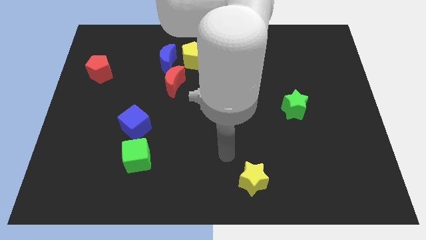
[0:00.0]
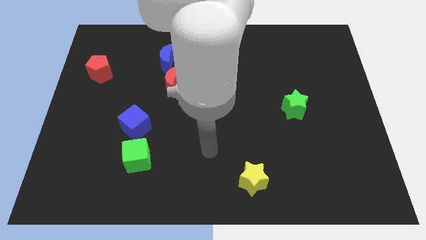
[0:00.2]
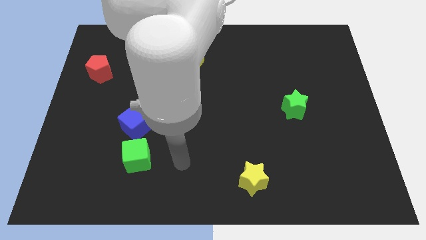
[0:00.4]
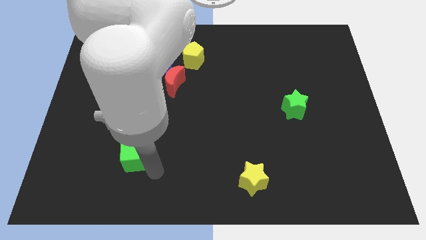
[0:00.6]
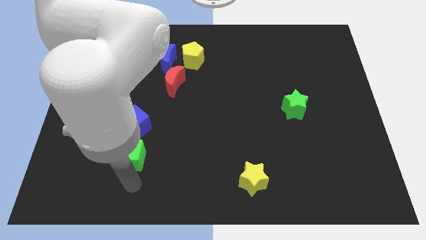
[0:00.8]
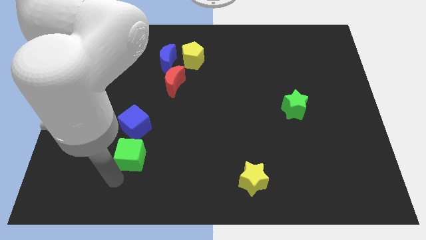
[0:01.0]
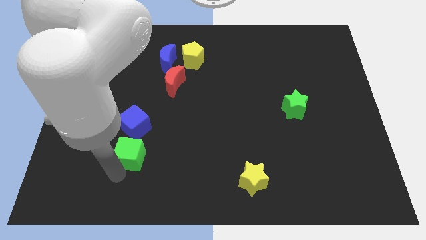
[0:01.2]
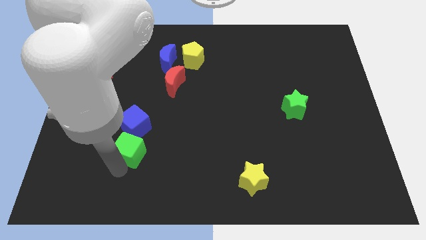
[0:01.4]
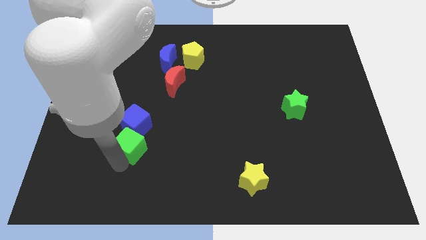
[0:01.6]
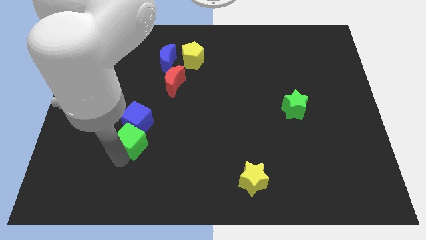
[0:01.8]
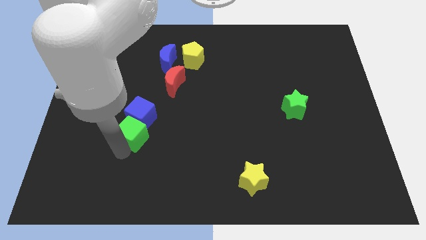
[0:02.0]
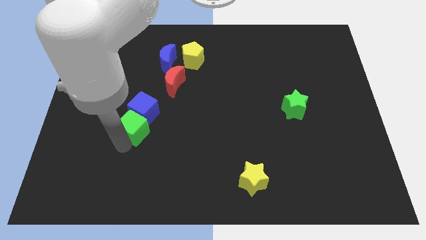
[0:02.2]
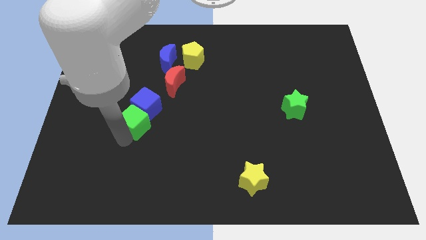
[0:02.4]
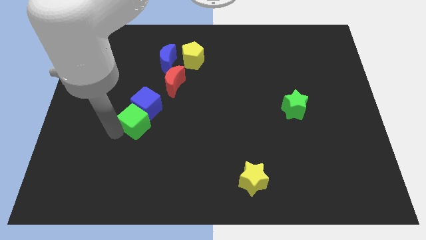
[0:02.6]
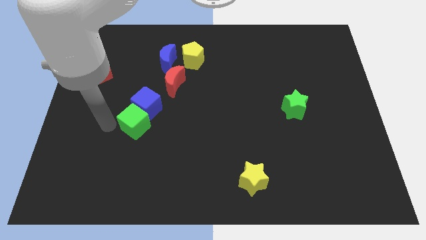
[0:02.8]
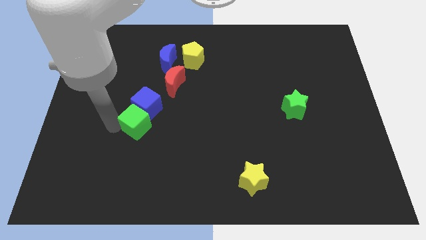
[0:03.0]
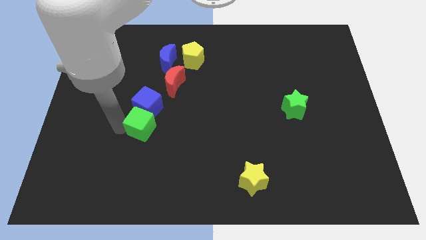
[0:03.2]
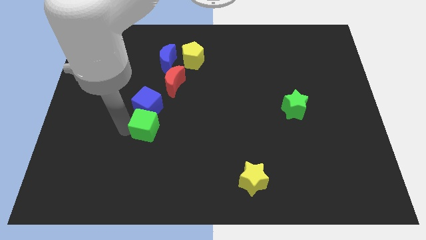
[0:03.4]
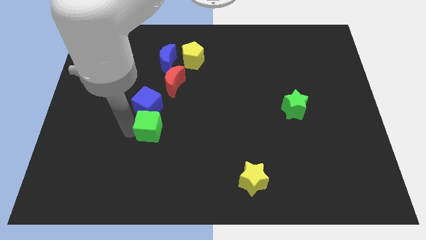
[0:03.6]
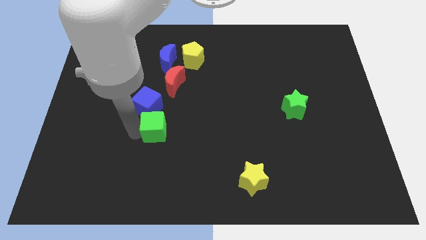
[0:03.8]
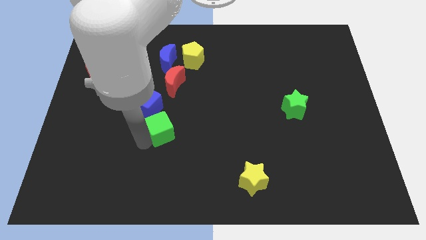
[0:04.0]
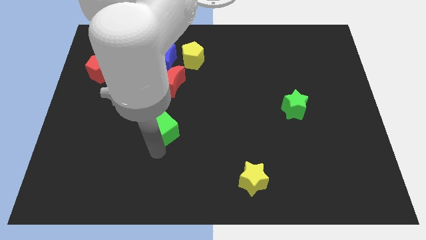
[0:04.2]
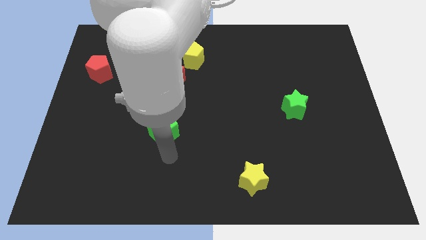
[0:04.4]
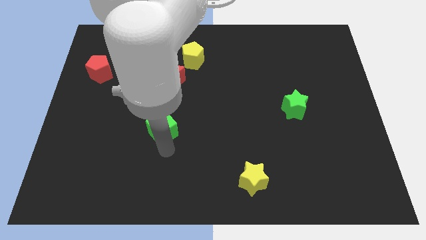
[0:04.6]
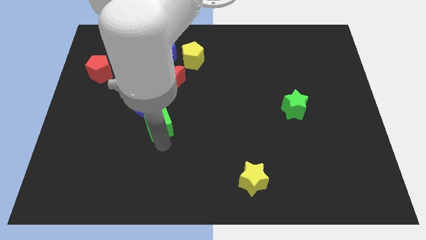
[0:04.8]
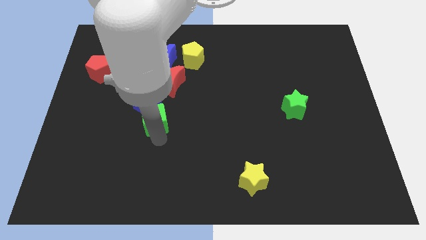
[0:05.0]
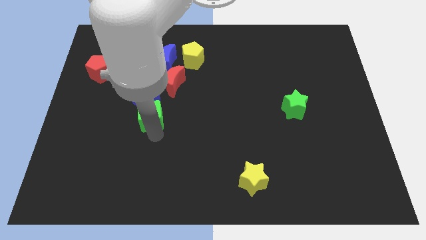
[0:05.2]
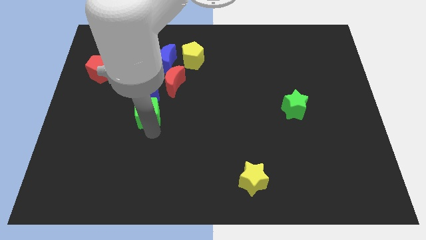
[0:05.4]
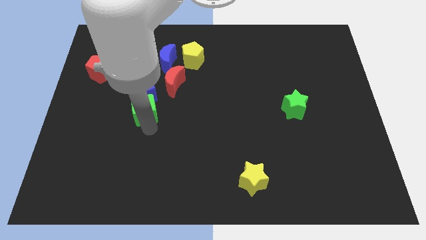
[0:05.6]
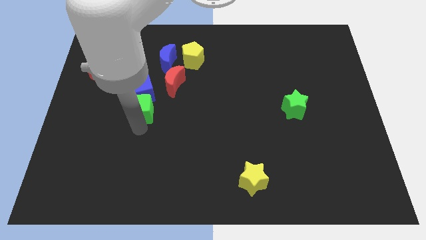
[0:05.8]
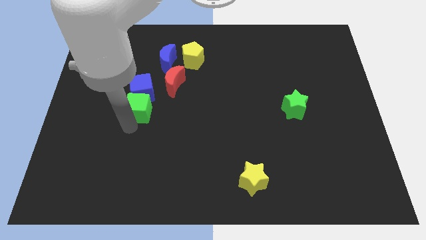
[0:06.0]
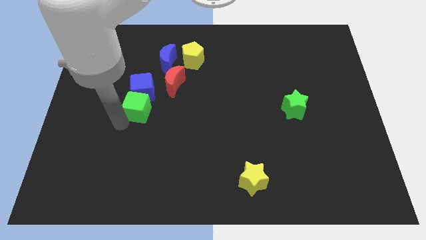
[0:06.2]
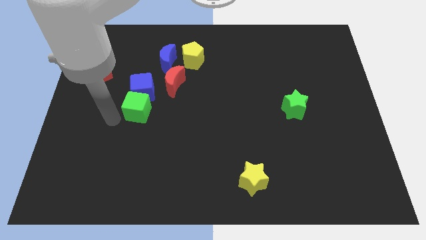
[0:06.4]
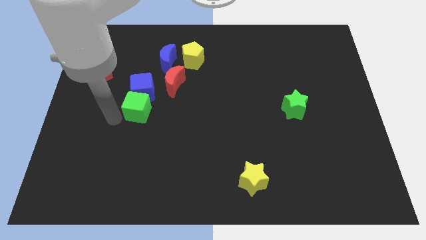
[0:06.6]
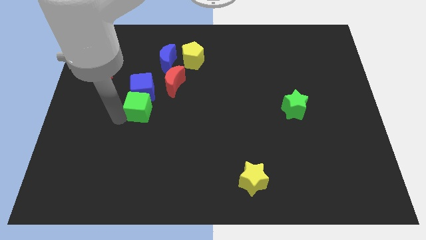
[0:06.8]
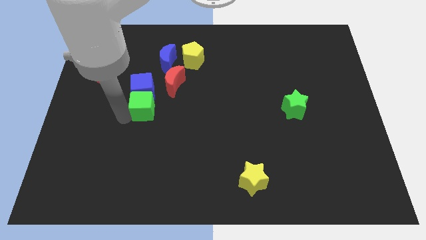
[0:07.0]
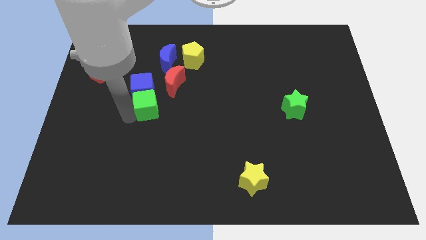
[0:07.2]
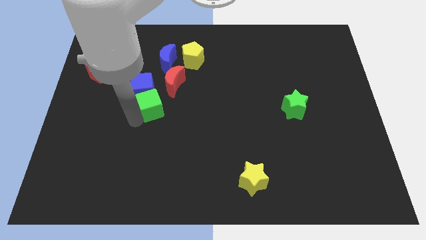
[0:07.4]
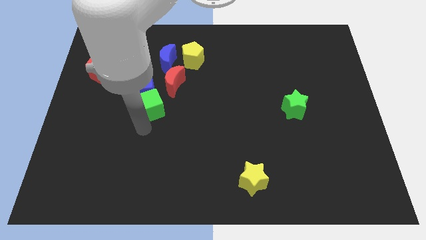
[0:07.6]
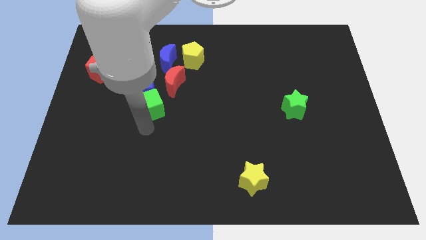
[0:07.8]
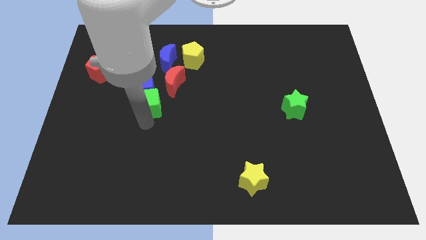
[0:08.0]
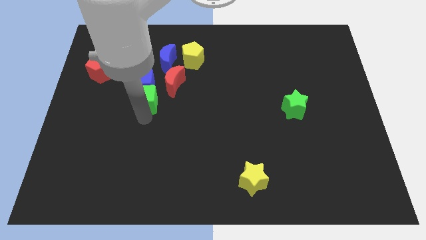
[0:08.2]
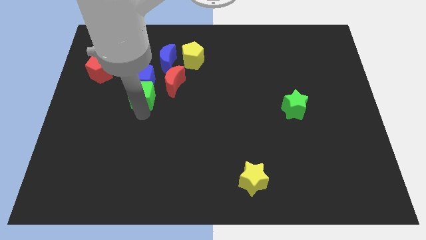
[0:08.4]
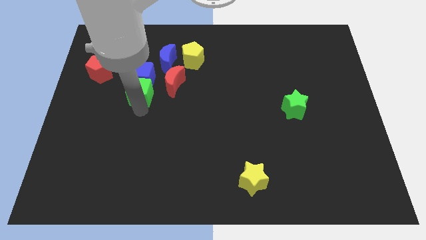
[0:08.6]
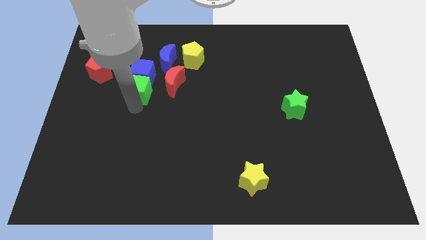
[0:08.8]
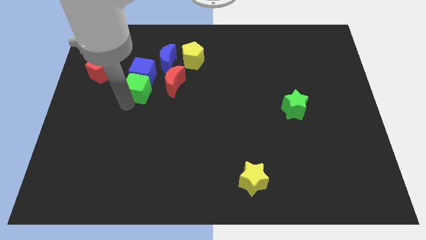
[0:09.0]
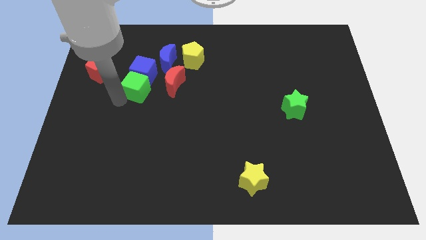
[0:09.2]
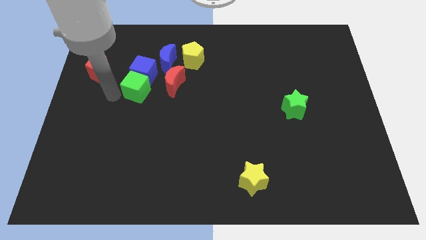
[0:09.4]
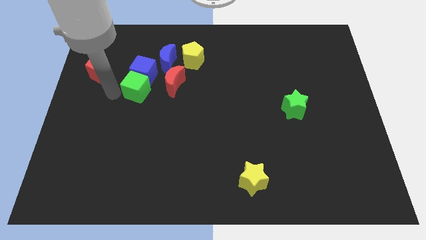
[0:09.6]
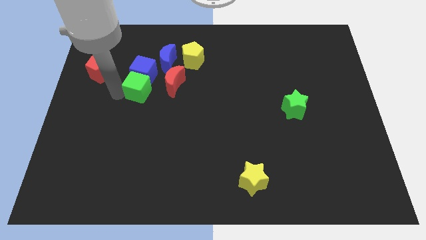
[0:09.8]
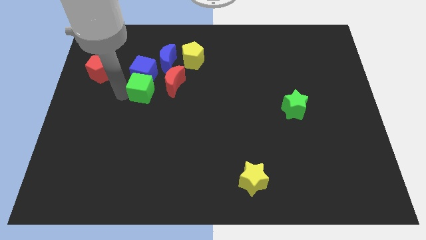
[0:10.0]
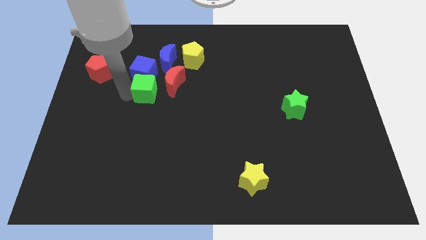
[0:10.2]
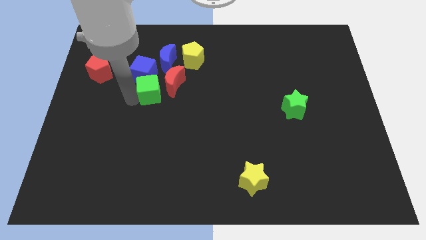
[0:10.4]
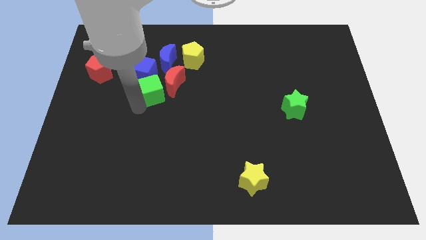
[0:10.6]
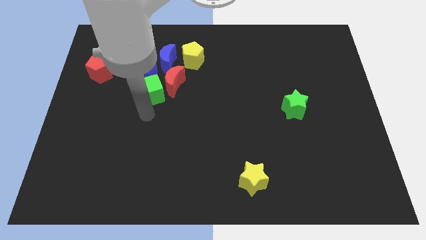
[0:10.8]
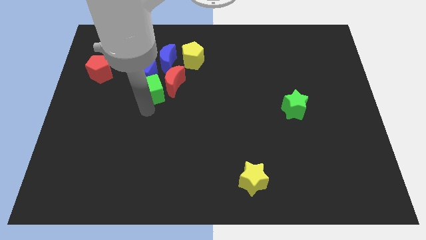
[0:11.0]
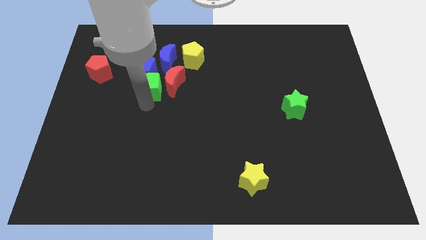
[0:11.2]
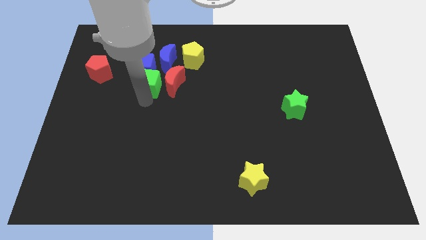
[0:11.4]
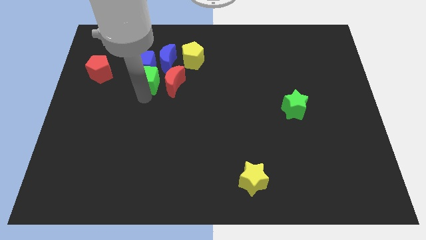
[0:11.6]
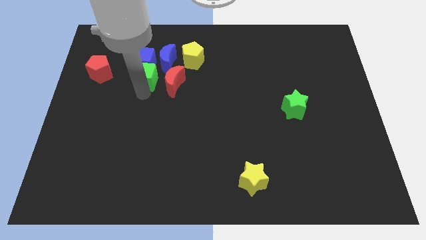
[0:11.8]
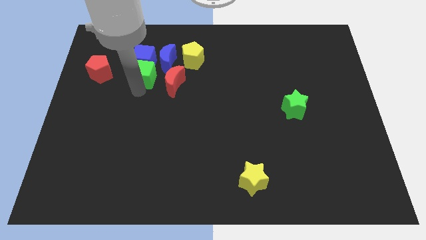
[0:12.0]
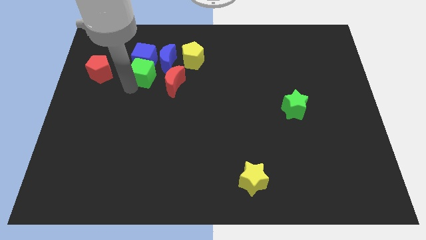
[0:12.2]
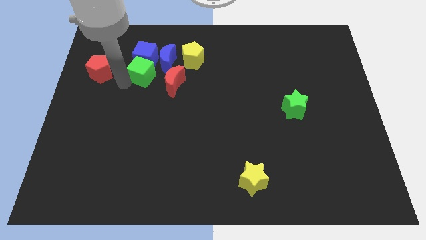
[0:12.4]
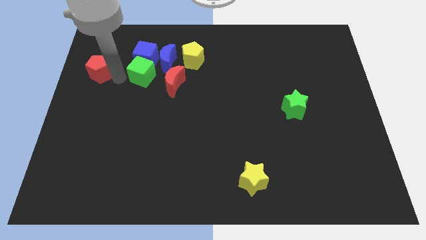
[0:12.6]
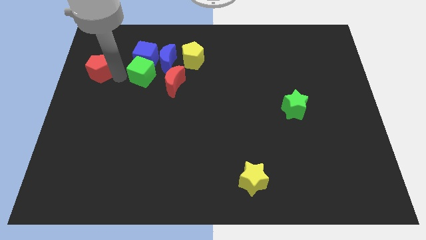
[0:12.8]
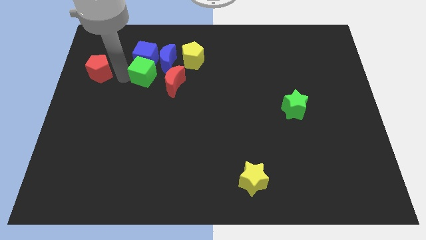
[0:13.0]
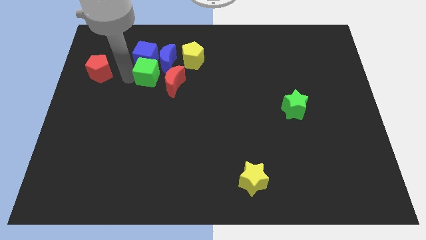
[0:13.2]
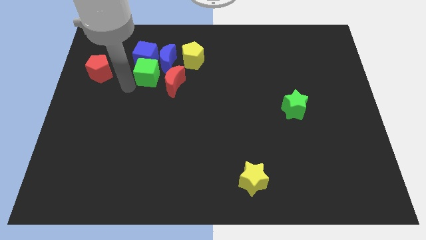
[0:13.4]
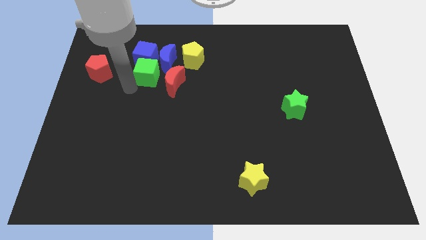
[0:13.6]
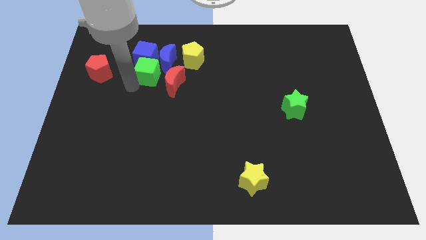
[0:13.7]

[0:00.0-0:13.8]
push the green cube next to the blue moon

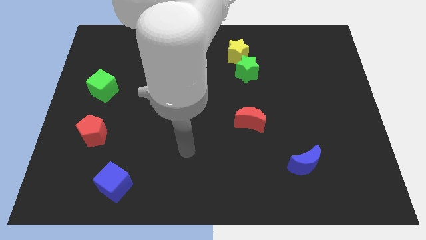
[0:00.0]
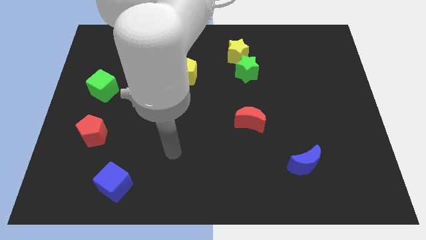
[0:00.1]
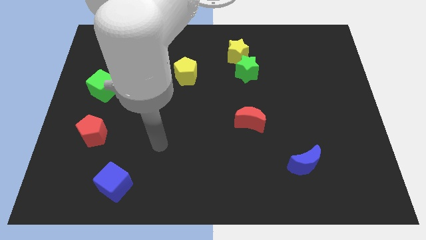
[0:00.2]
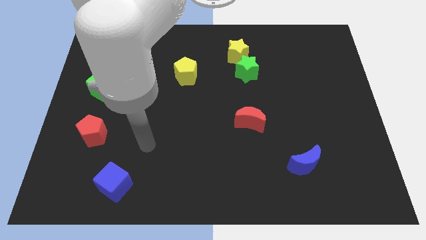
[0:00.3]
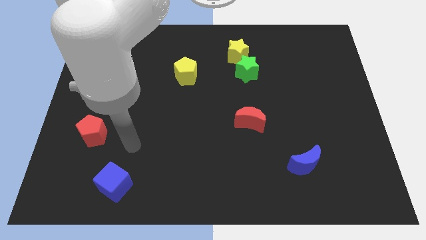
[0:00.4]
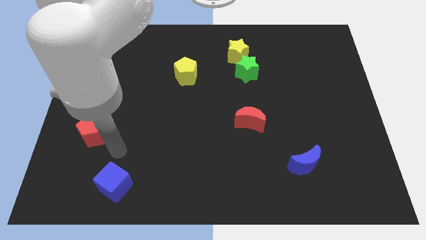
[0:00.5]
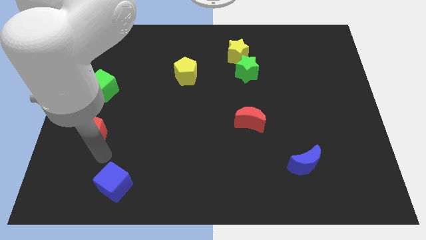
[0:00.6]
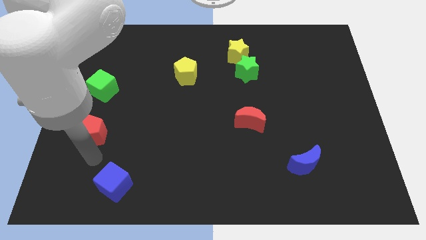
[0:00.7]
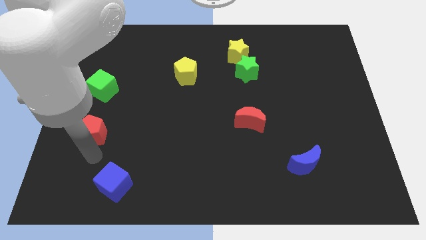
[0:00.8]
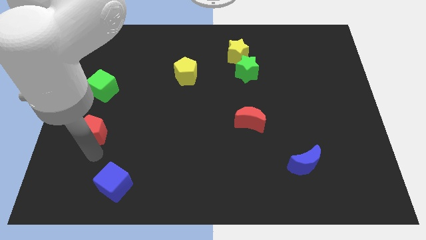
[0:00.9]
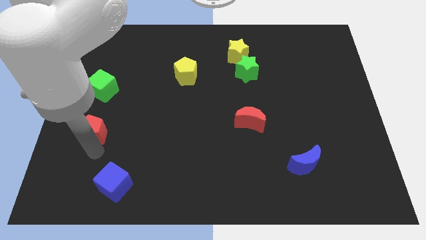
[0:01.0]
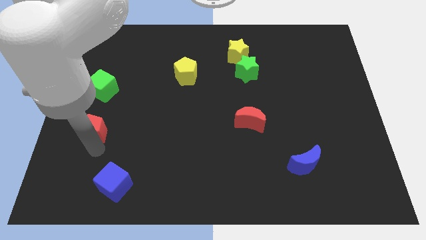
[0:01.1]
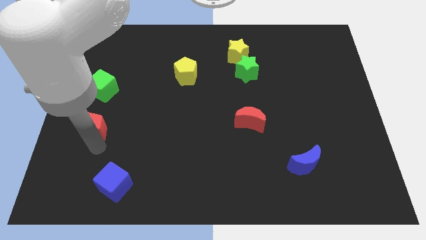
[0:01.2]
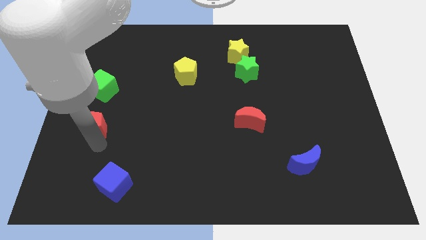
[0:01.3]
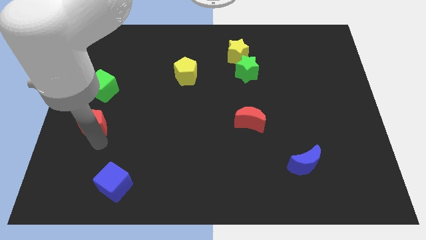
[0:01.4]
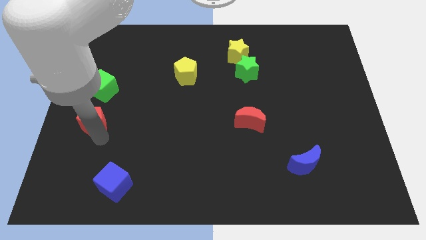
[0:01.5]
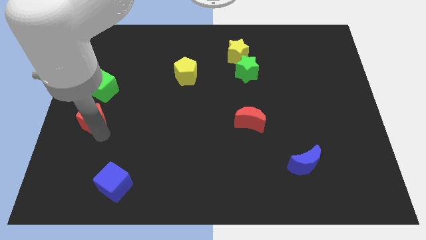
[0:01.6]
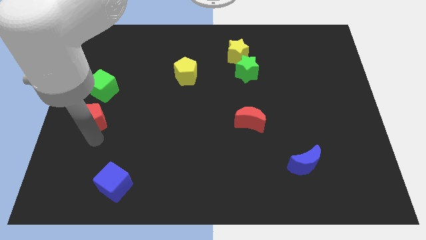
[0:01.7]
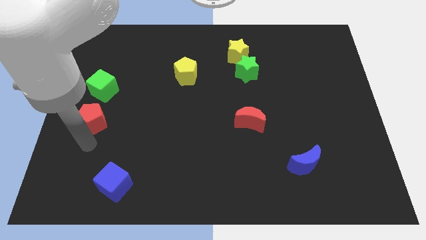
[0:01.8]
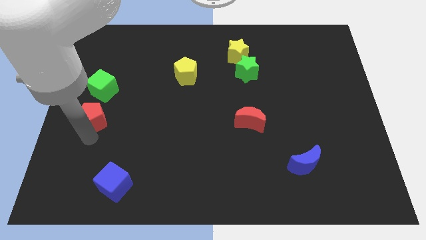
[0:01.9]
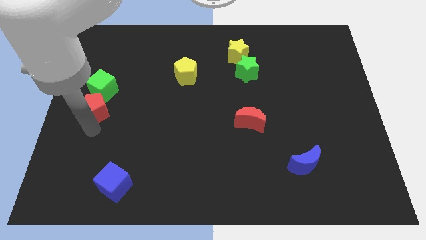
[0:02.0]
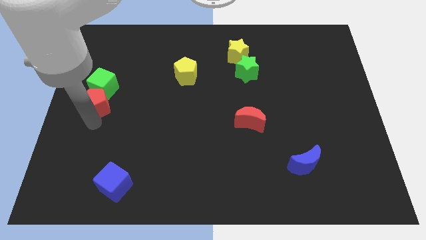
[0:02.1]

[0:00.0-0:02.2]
move the red pentagon close to the green cube
